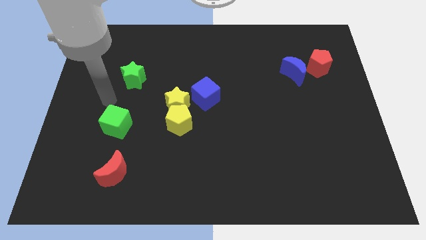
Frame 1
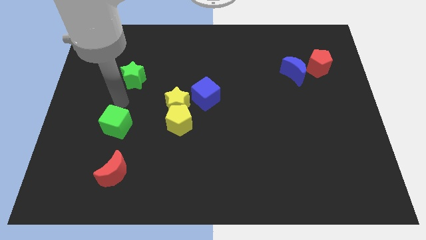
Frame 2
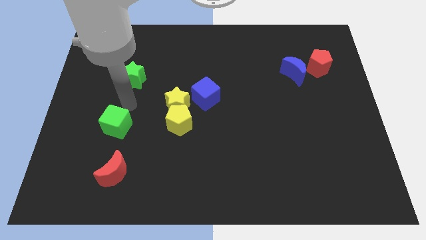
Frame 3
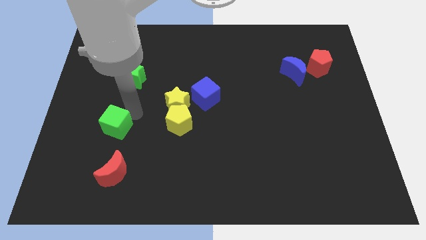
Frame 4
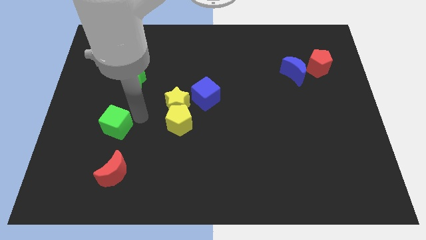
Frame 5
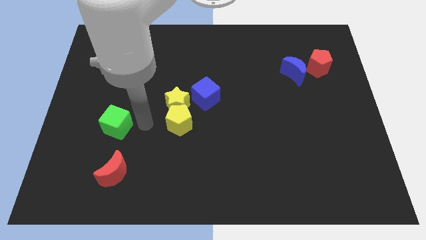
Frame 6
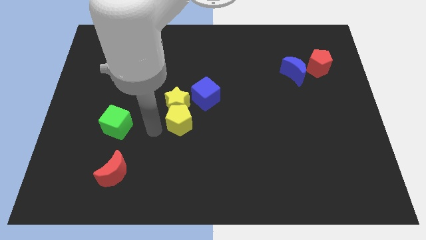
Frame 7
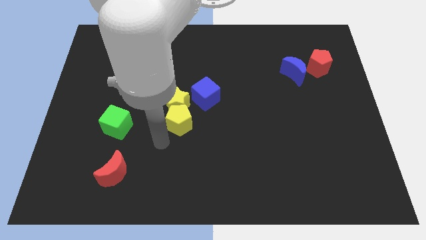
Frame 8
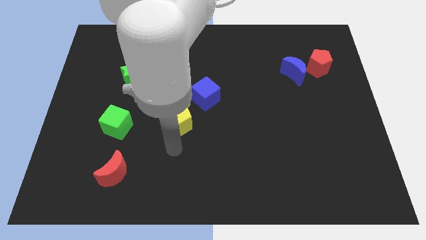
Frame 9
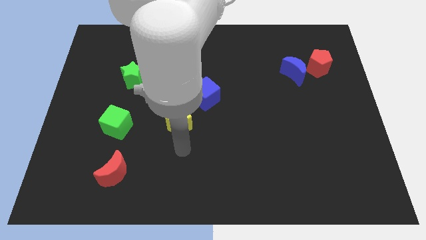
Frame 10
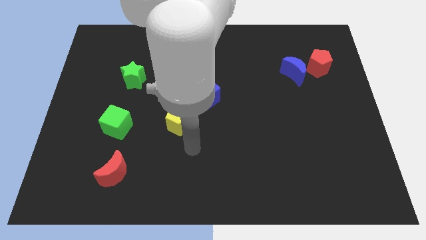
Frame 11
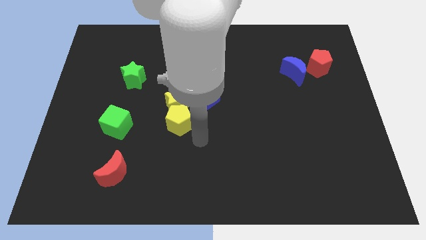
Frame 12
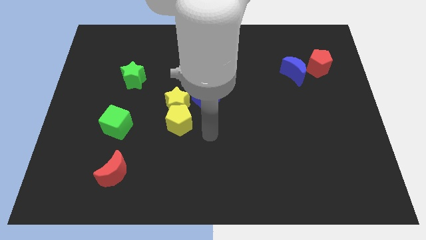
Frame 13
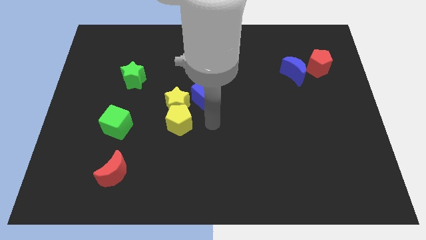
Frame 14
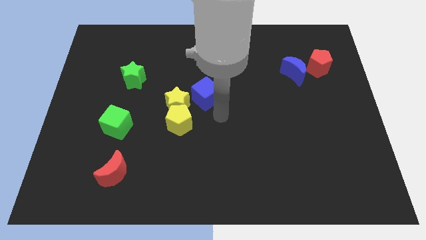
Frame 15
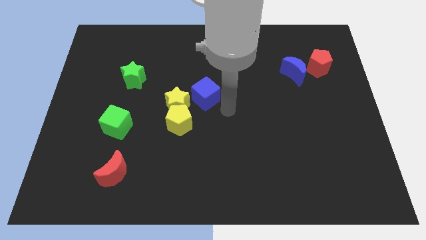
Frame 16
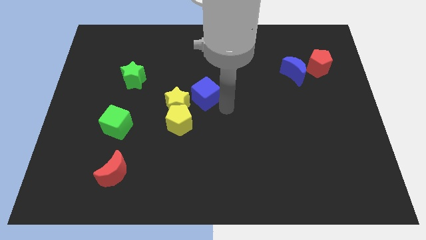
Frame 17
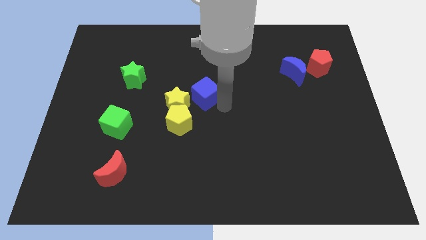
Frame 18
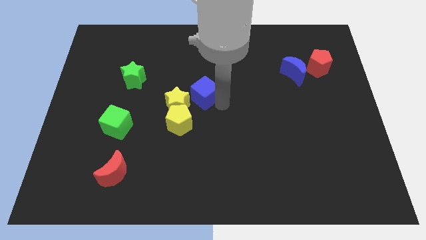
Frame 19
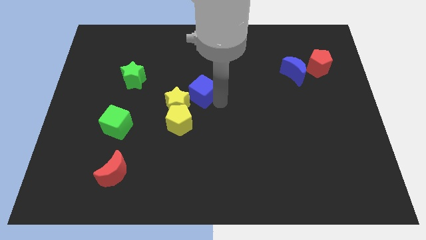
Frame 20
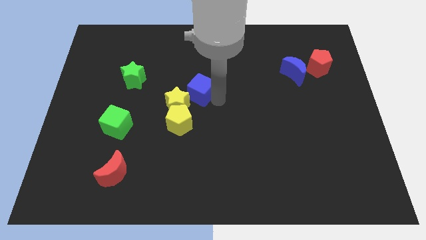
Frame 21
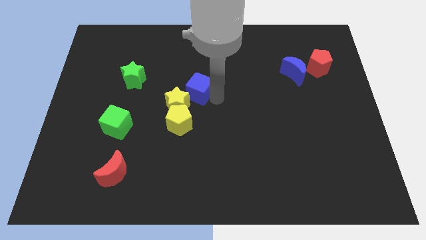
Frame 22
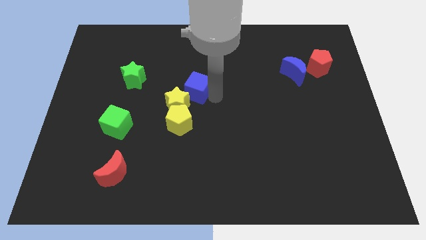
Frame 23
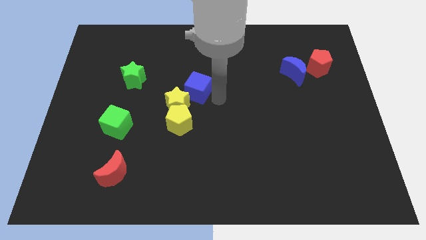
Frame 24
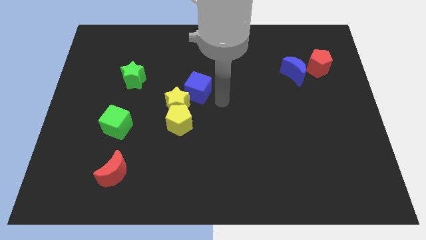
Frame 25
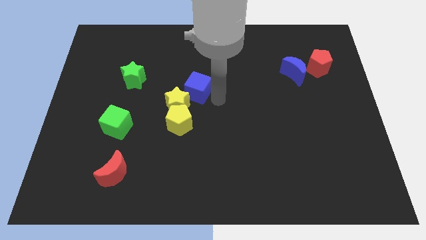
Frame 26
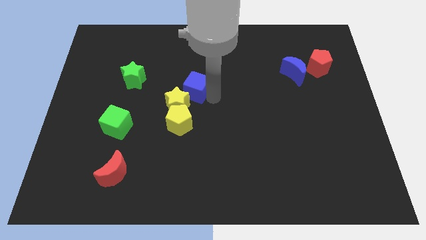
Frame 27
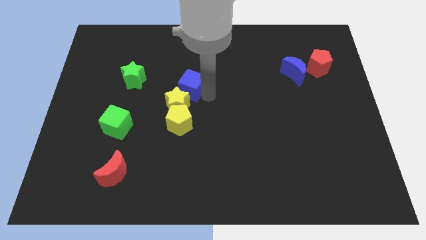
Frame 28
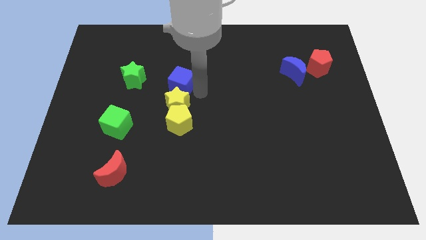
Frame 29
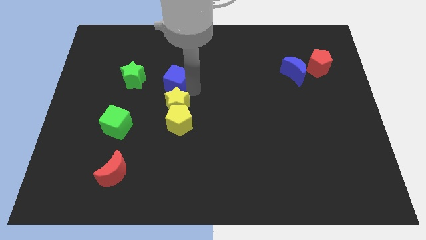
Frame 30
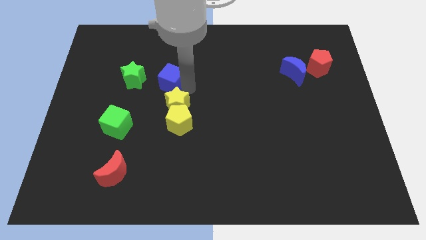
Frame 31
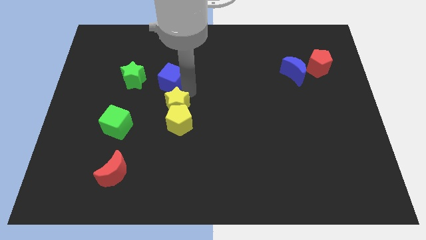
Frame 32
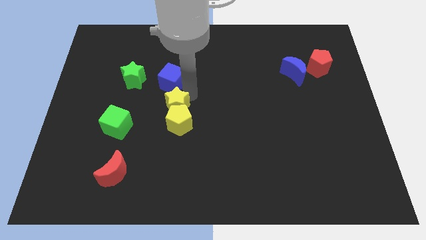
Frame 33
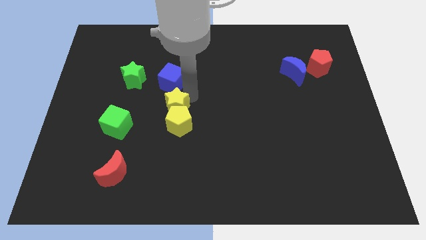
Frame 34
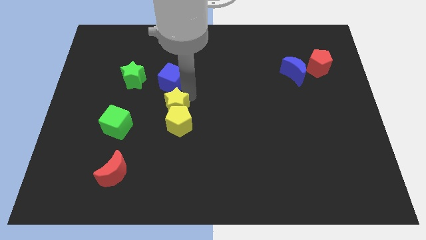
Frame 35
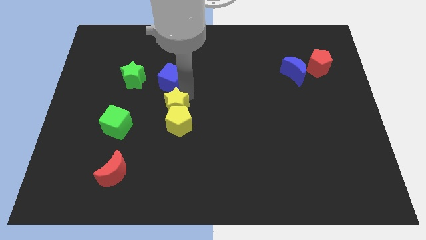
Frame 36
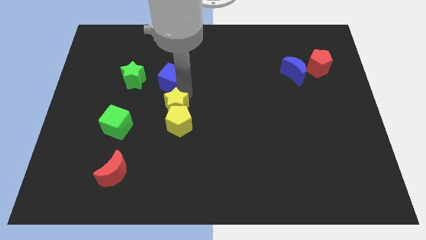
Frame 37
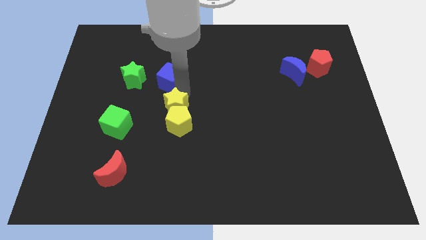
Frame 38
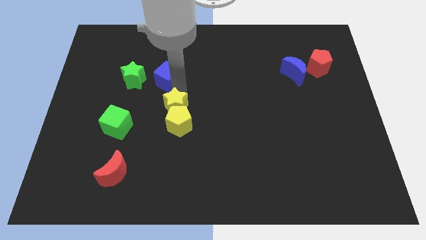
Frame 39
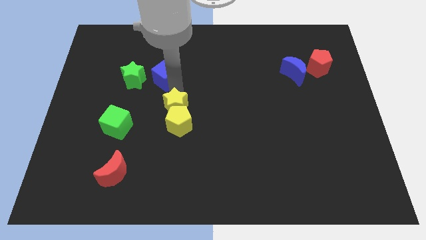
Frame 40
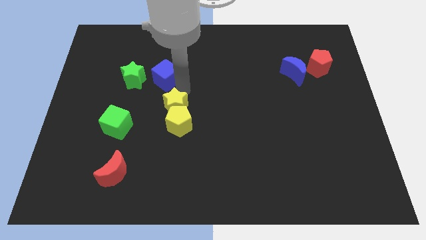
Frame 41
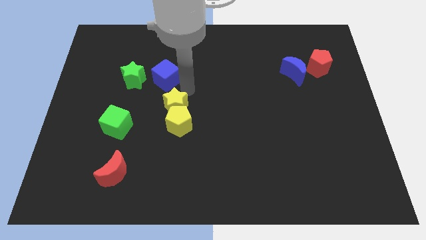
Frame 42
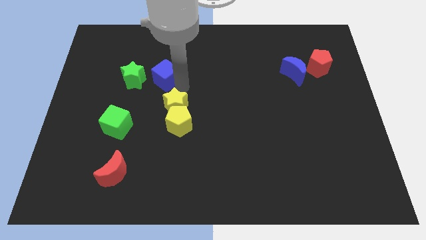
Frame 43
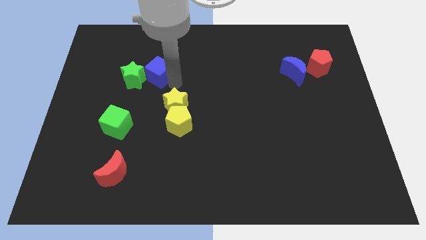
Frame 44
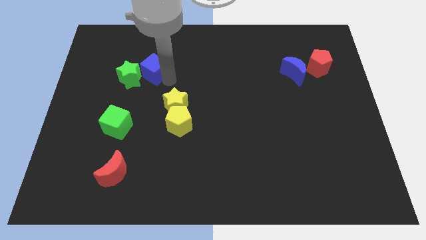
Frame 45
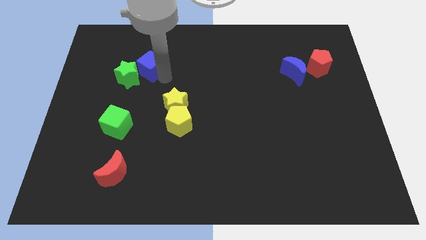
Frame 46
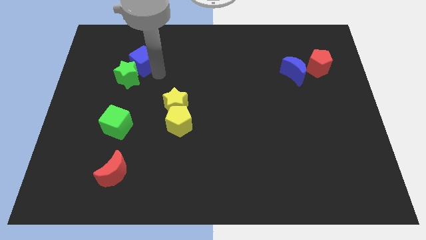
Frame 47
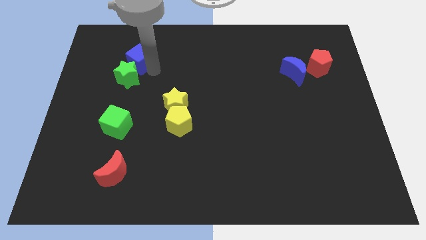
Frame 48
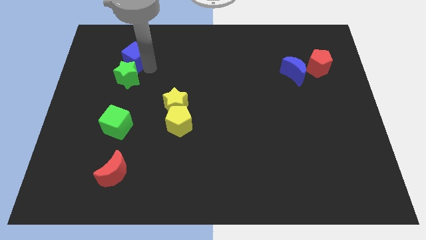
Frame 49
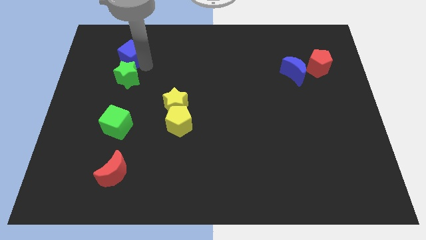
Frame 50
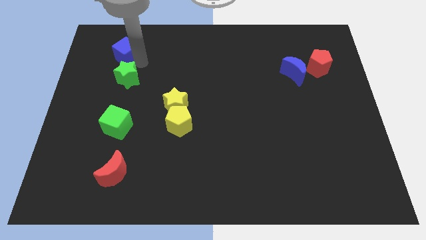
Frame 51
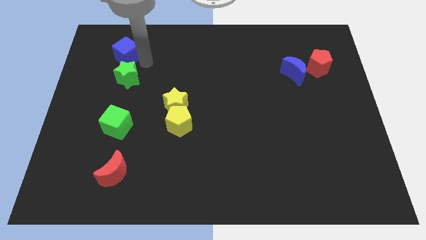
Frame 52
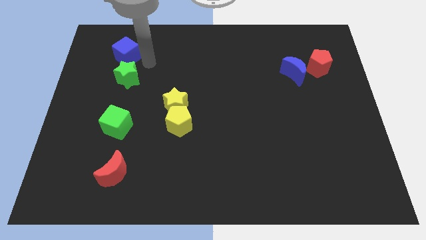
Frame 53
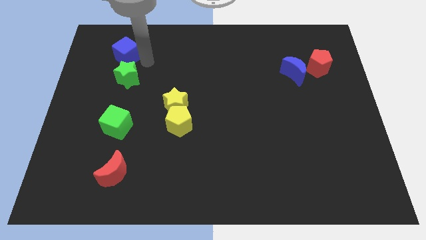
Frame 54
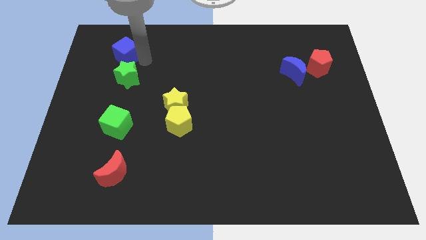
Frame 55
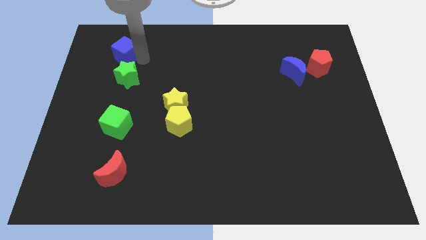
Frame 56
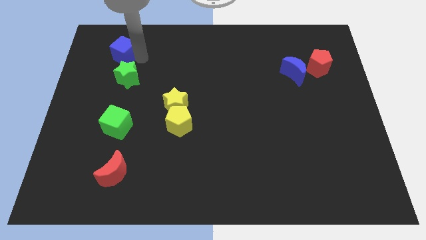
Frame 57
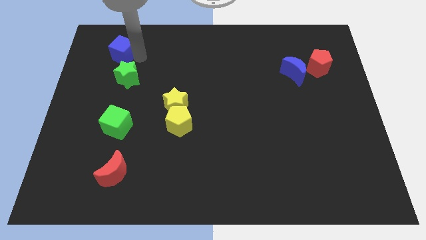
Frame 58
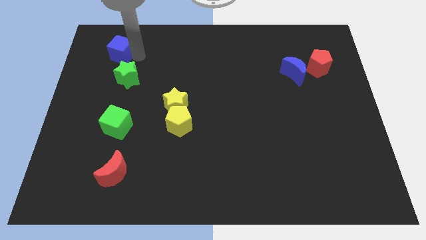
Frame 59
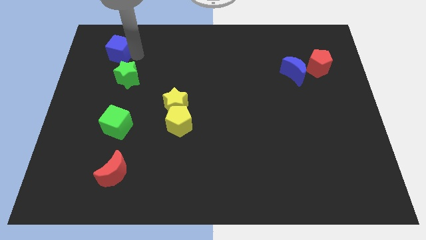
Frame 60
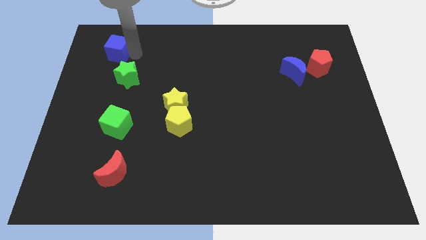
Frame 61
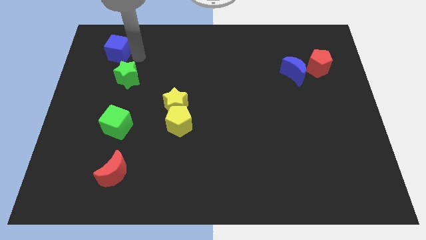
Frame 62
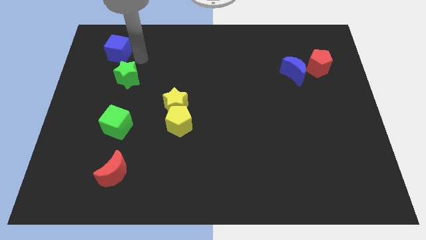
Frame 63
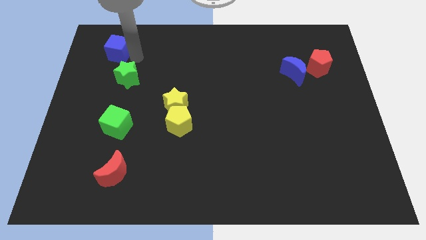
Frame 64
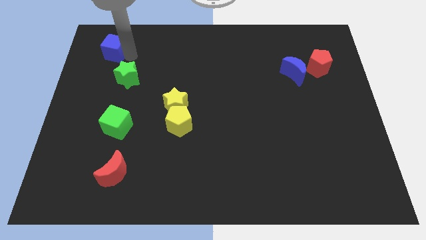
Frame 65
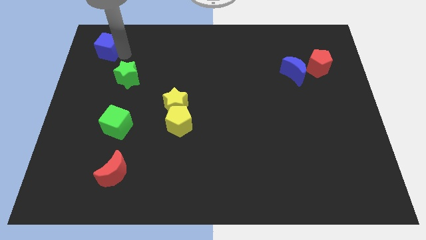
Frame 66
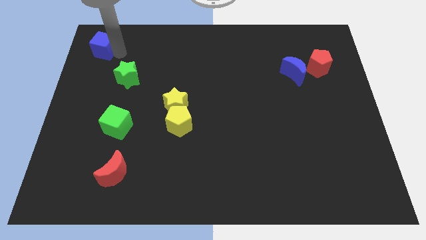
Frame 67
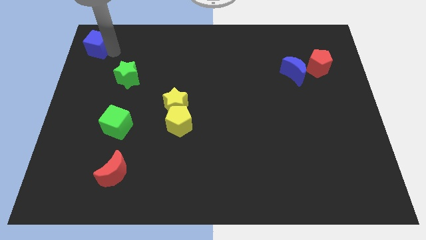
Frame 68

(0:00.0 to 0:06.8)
push the blue cube to the upper left corner
